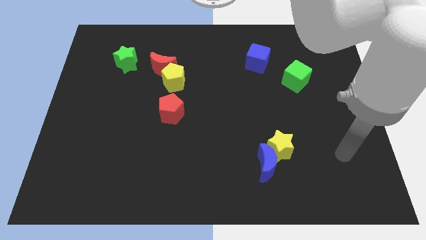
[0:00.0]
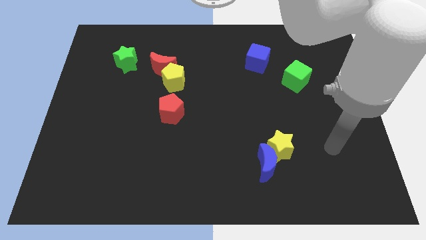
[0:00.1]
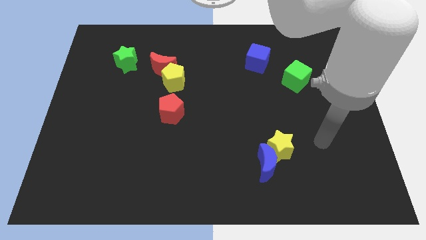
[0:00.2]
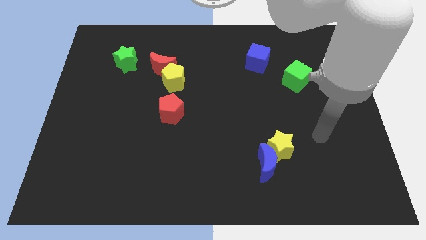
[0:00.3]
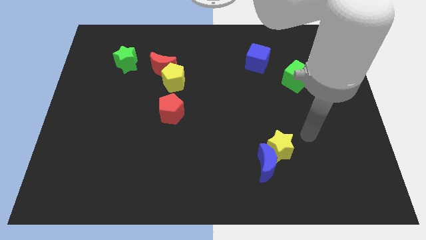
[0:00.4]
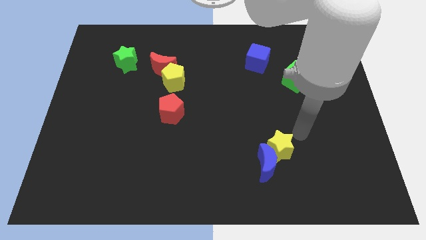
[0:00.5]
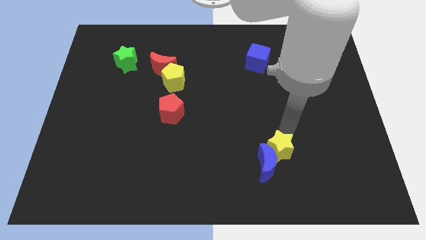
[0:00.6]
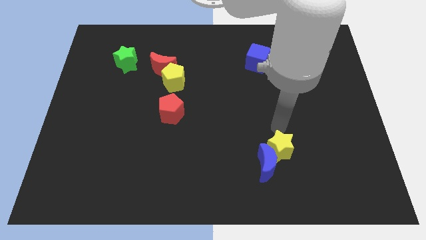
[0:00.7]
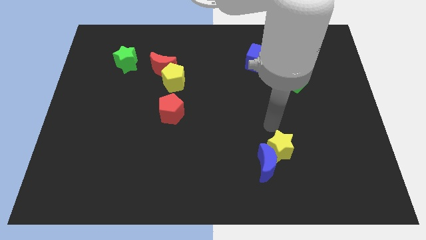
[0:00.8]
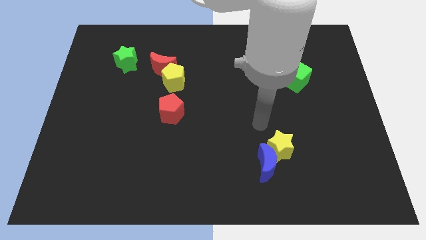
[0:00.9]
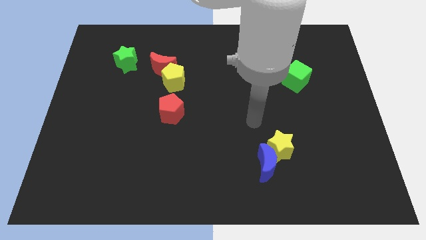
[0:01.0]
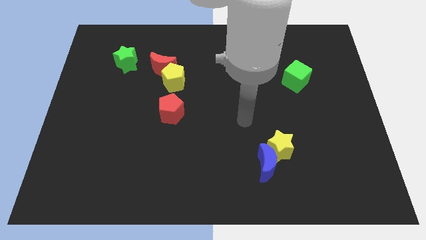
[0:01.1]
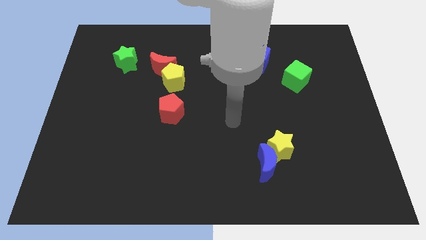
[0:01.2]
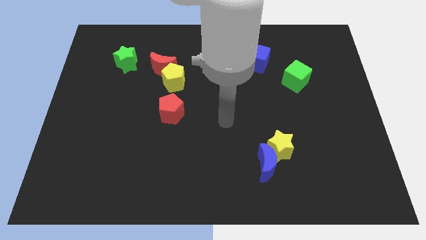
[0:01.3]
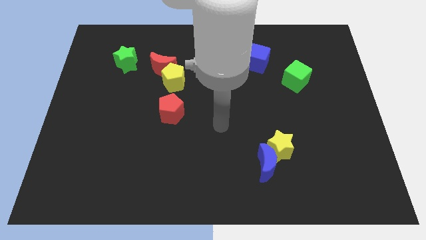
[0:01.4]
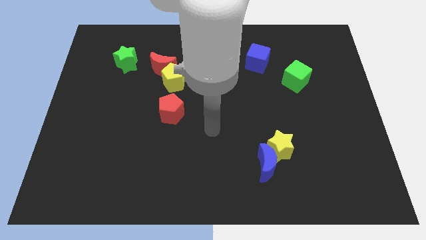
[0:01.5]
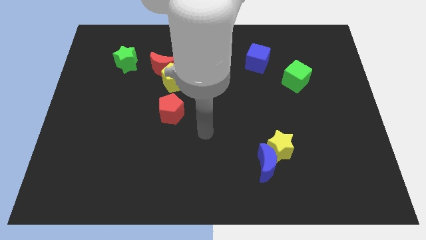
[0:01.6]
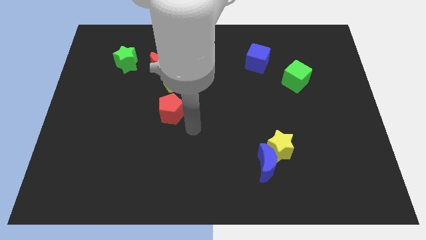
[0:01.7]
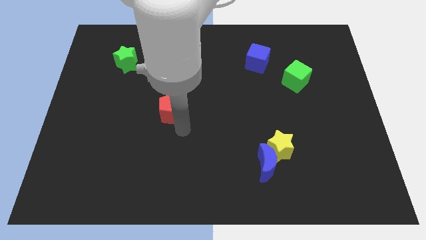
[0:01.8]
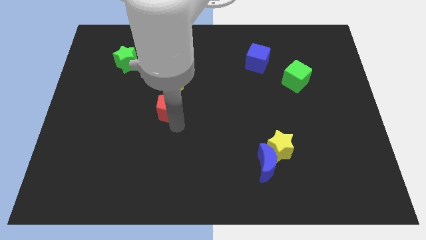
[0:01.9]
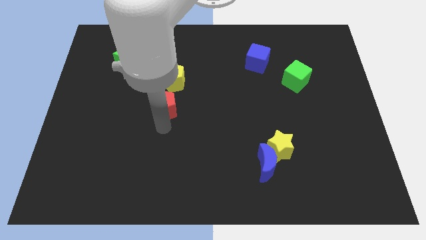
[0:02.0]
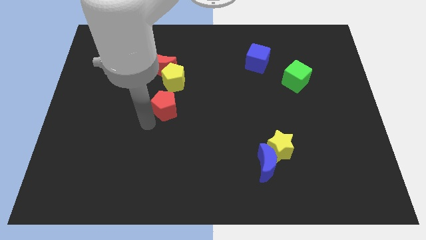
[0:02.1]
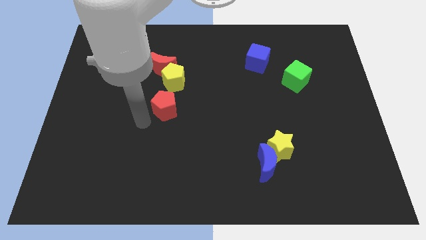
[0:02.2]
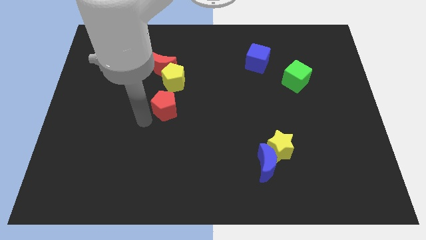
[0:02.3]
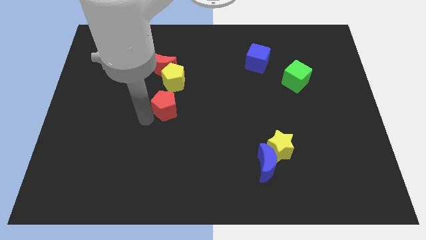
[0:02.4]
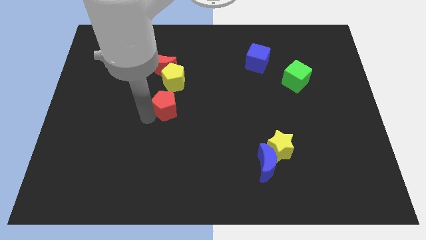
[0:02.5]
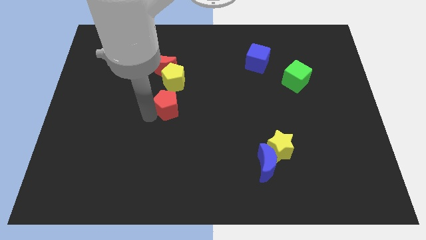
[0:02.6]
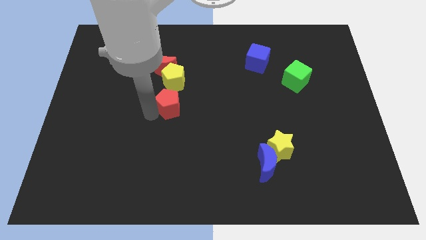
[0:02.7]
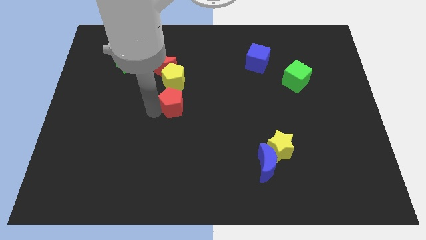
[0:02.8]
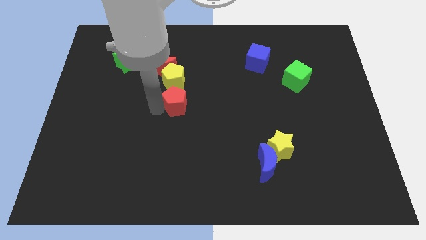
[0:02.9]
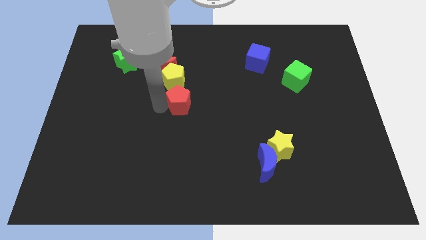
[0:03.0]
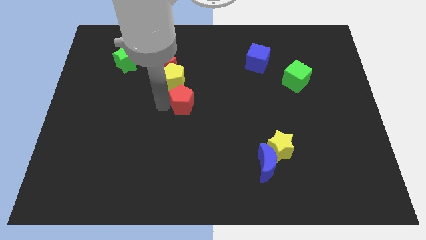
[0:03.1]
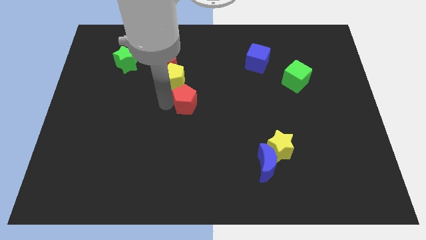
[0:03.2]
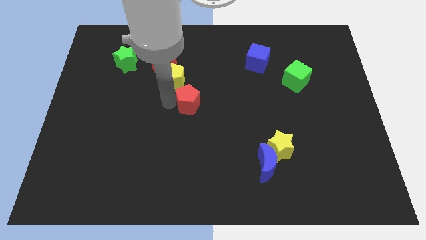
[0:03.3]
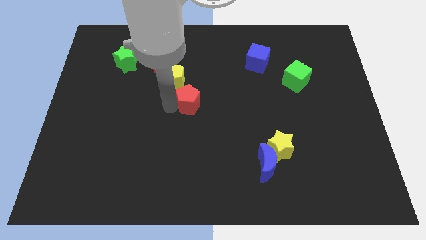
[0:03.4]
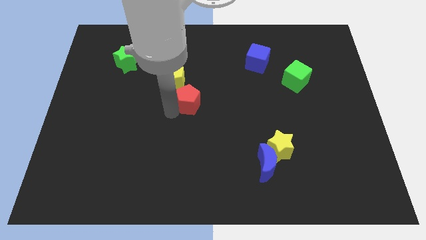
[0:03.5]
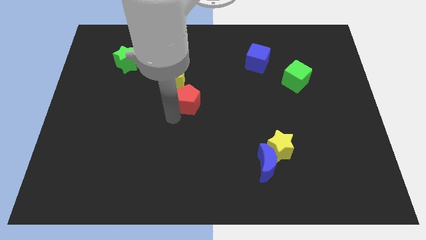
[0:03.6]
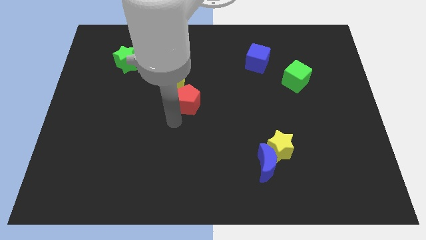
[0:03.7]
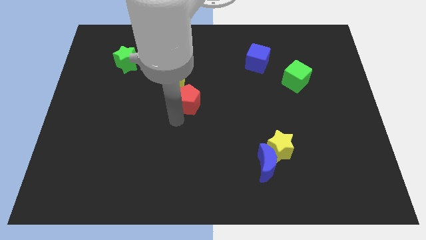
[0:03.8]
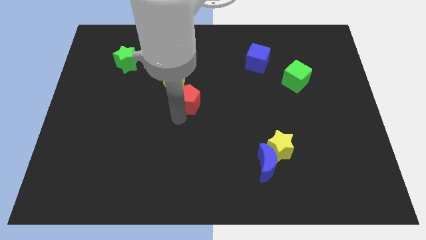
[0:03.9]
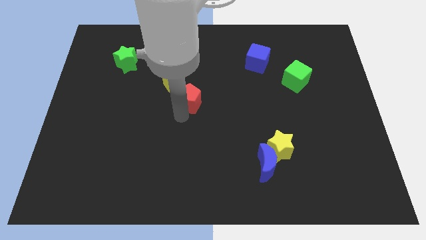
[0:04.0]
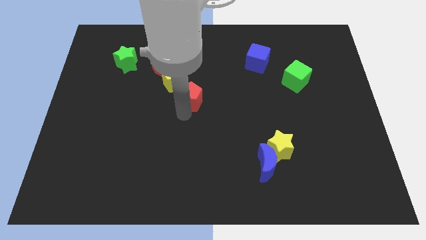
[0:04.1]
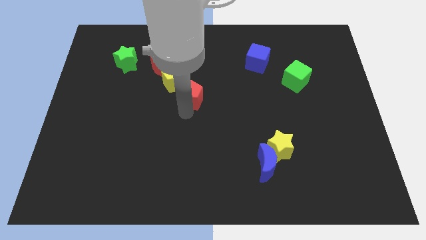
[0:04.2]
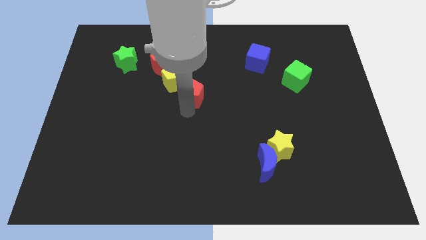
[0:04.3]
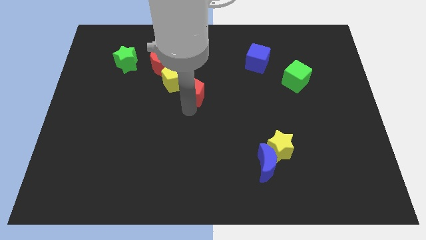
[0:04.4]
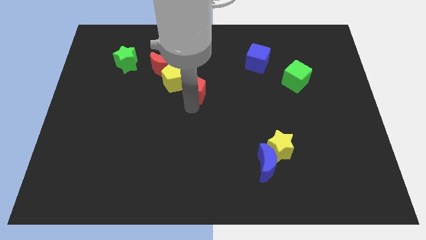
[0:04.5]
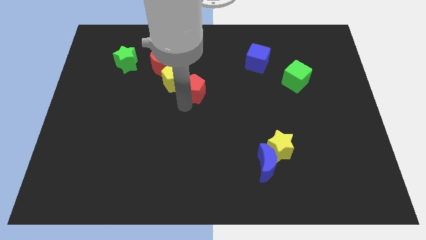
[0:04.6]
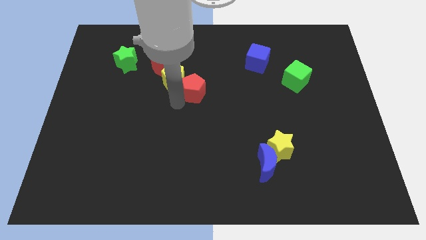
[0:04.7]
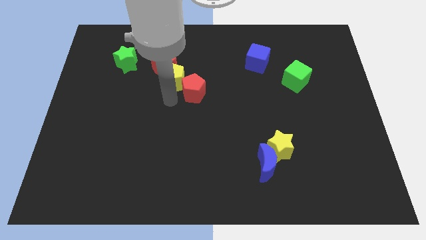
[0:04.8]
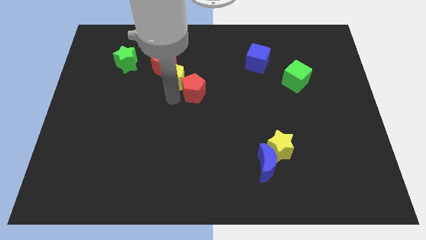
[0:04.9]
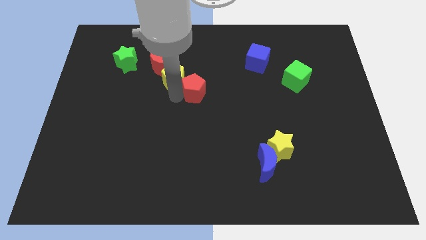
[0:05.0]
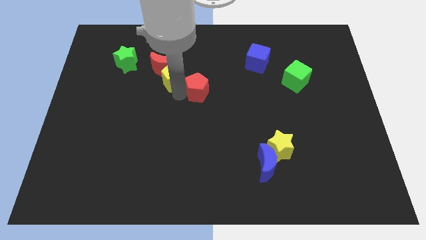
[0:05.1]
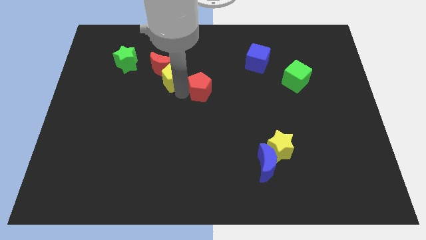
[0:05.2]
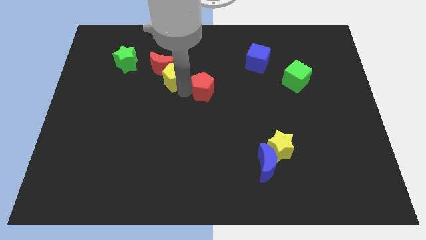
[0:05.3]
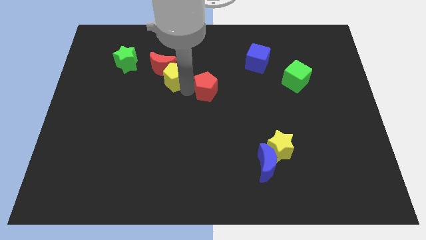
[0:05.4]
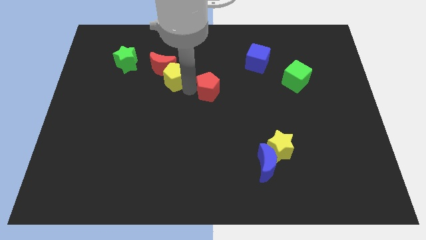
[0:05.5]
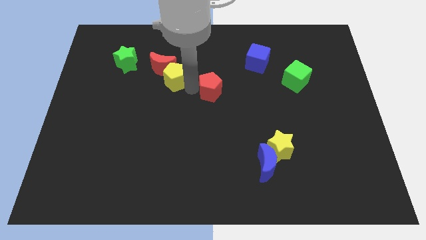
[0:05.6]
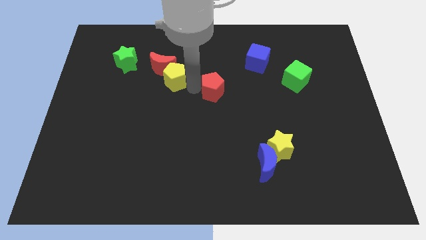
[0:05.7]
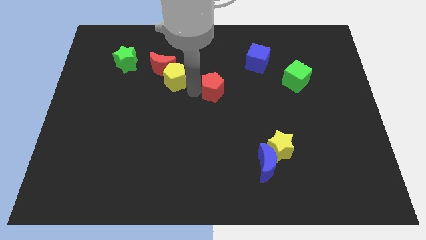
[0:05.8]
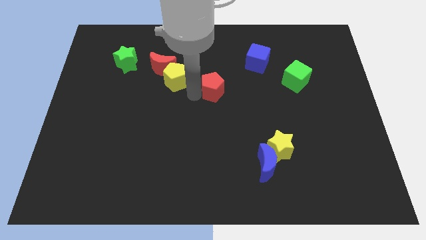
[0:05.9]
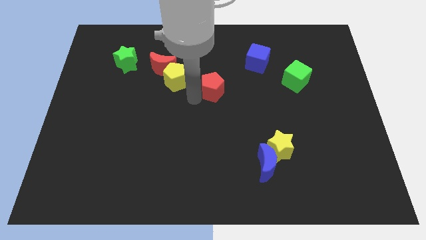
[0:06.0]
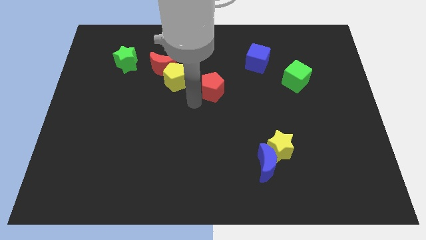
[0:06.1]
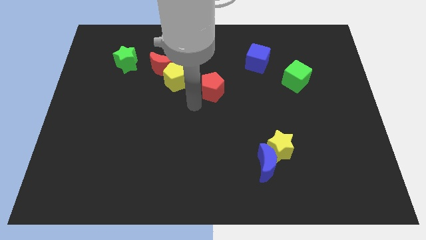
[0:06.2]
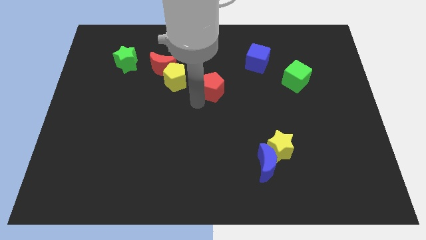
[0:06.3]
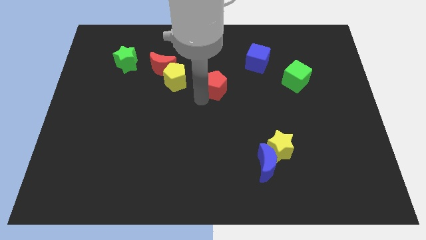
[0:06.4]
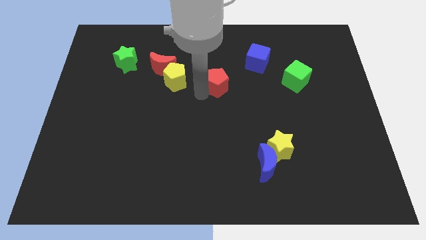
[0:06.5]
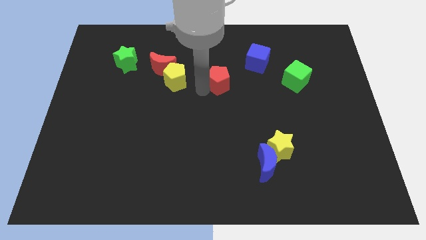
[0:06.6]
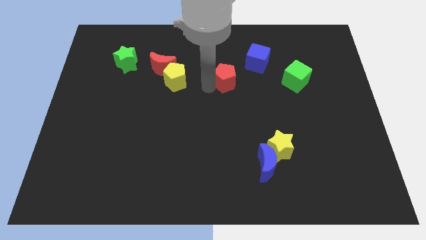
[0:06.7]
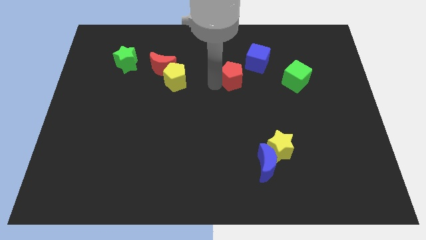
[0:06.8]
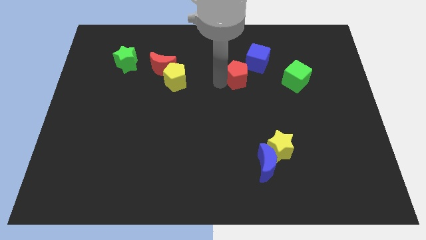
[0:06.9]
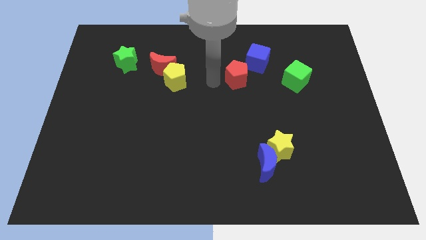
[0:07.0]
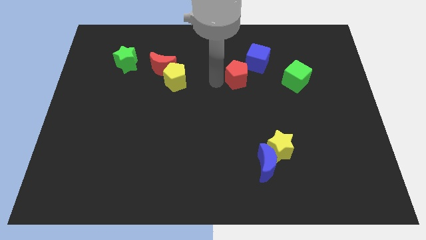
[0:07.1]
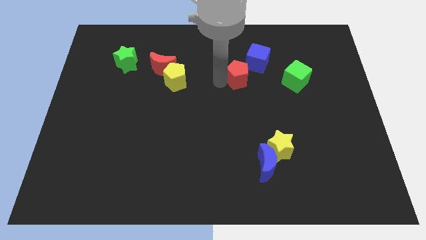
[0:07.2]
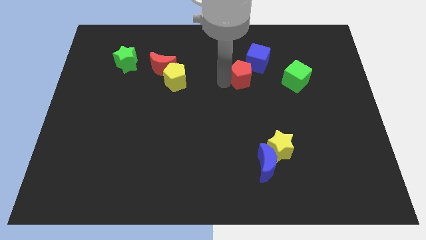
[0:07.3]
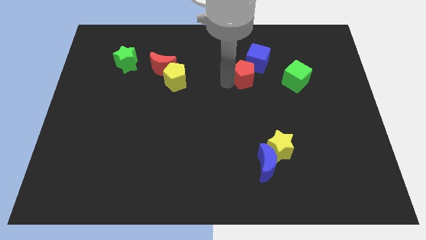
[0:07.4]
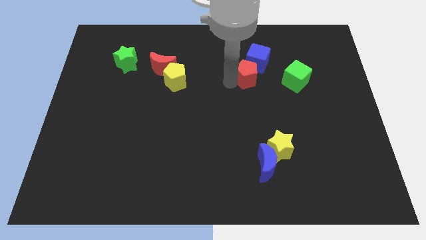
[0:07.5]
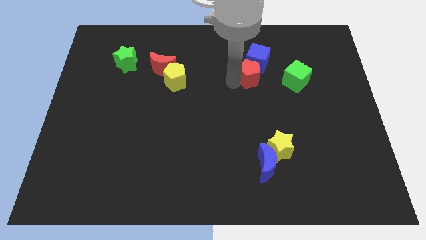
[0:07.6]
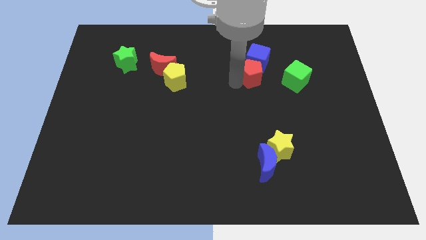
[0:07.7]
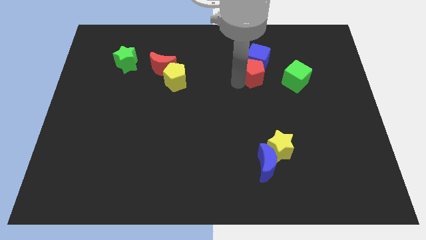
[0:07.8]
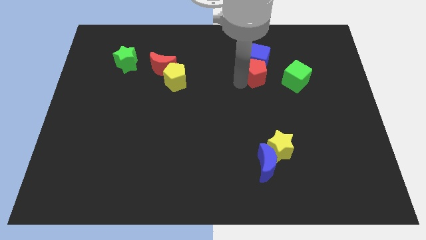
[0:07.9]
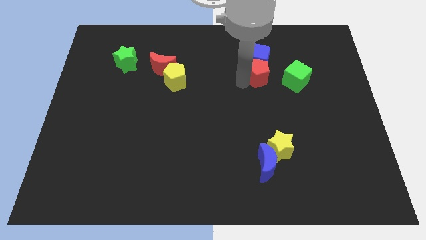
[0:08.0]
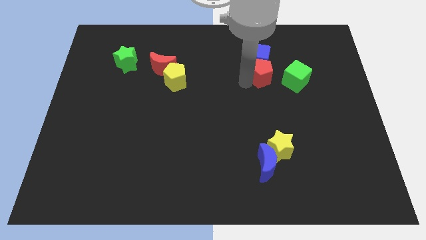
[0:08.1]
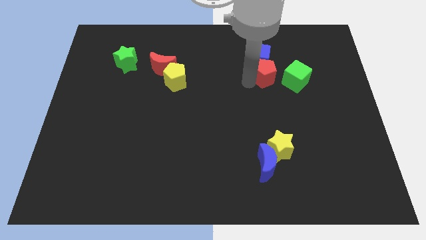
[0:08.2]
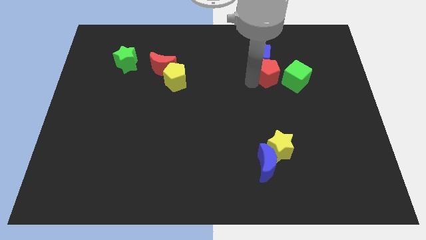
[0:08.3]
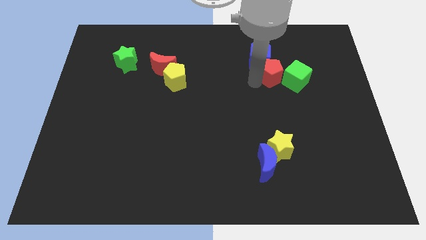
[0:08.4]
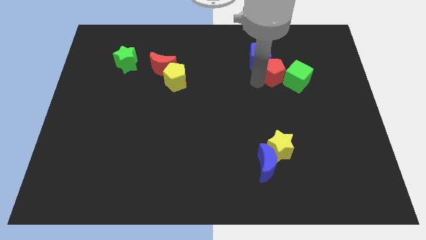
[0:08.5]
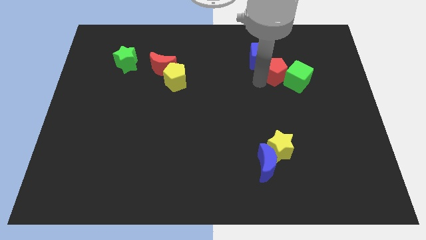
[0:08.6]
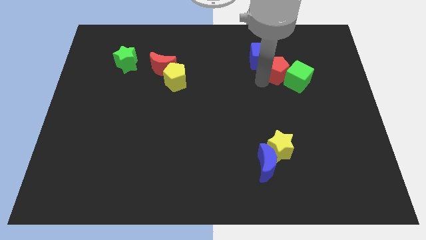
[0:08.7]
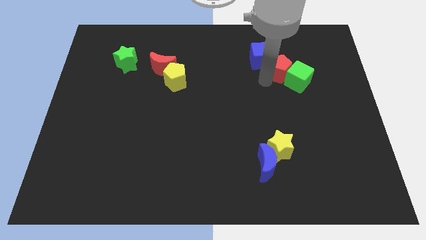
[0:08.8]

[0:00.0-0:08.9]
put the red pentagon just right of the blue cube
